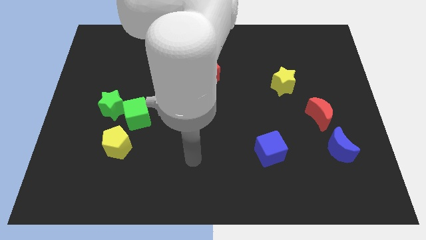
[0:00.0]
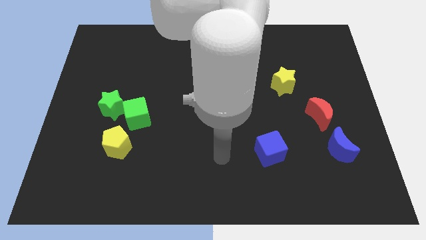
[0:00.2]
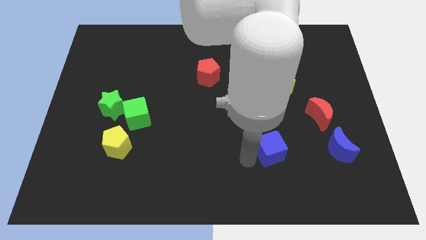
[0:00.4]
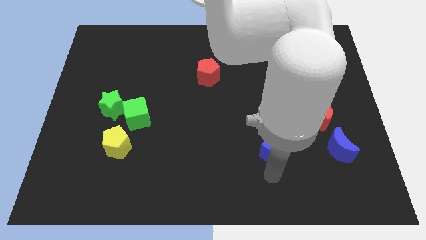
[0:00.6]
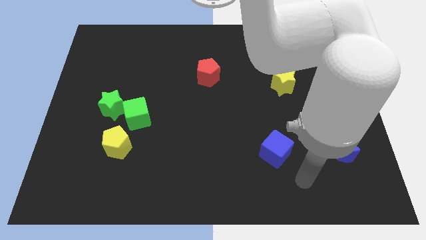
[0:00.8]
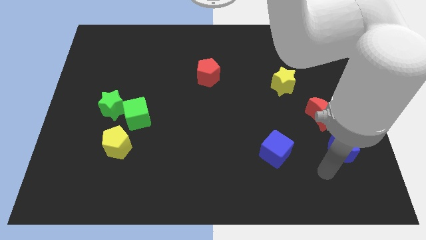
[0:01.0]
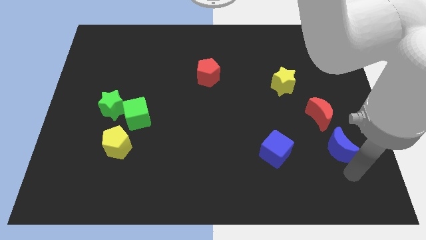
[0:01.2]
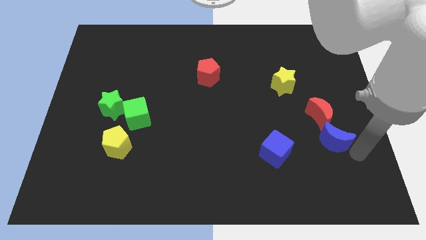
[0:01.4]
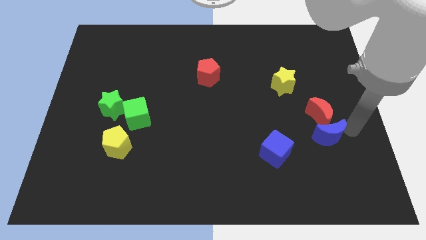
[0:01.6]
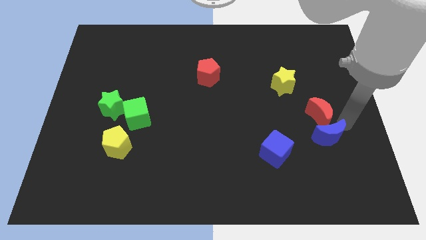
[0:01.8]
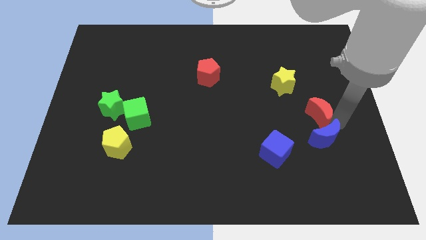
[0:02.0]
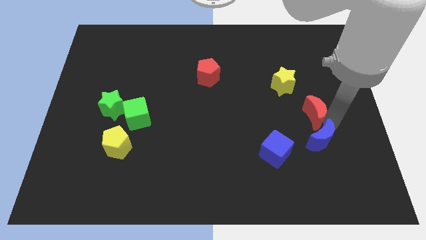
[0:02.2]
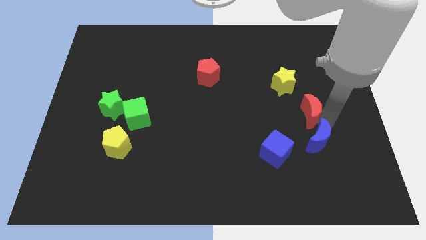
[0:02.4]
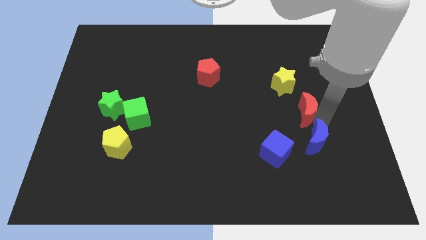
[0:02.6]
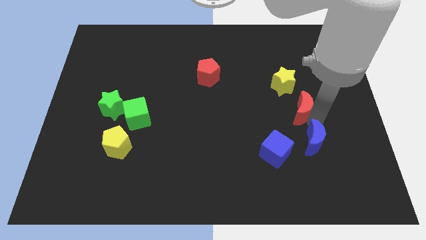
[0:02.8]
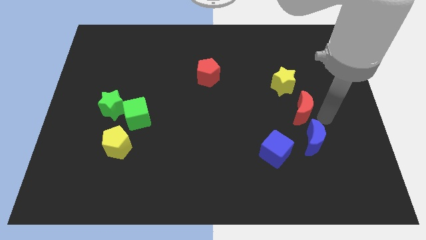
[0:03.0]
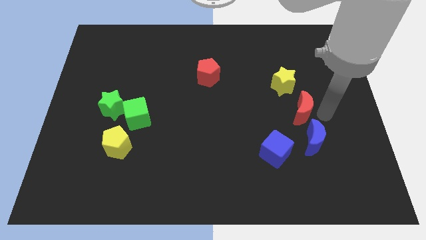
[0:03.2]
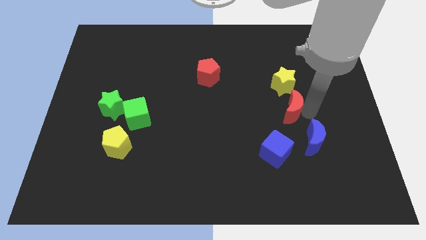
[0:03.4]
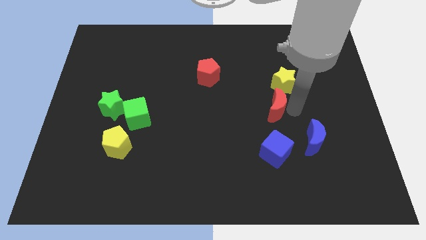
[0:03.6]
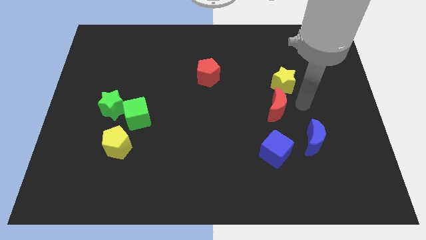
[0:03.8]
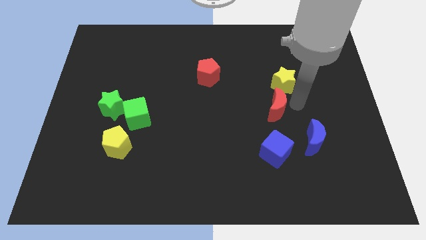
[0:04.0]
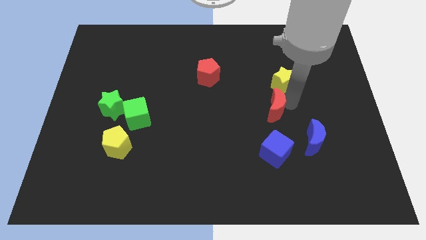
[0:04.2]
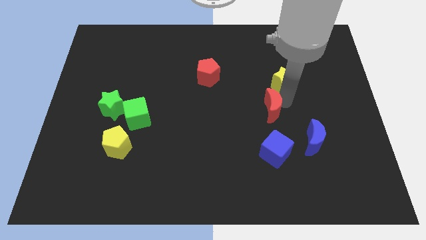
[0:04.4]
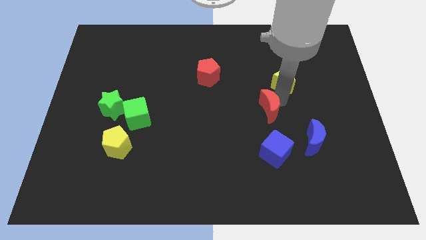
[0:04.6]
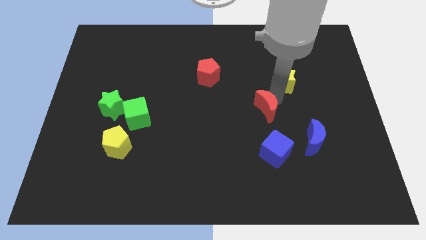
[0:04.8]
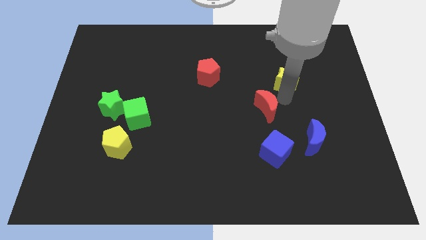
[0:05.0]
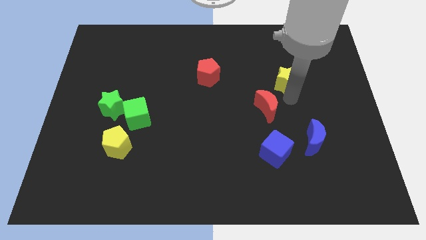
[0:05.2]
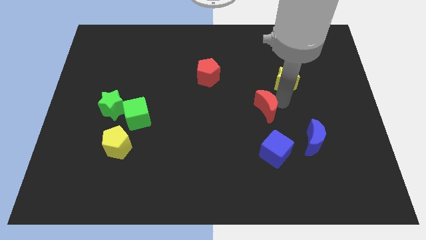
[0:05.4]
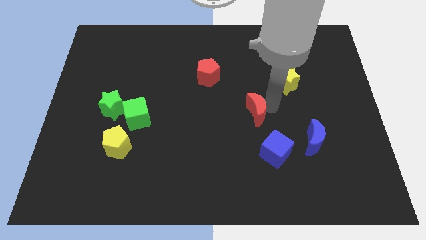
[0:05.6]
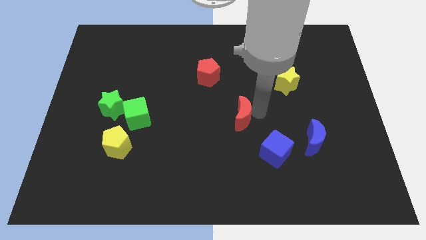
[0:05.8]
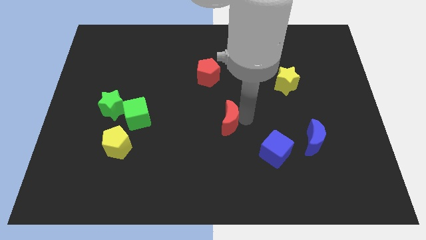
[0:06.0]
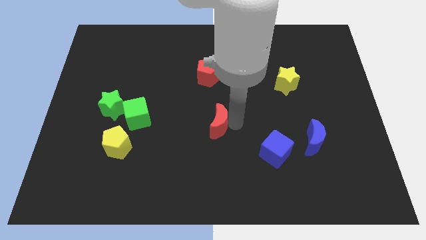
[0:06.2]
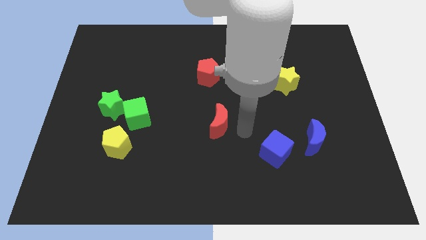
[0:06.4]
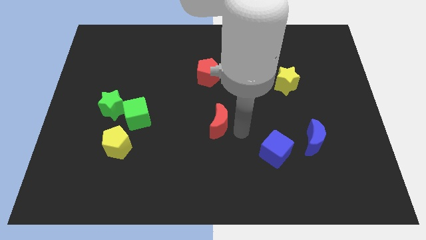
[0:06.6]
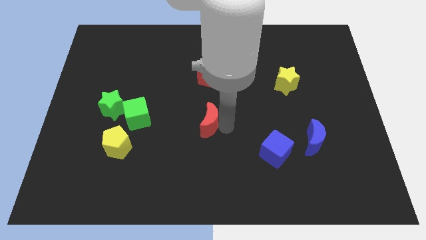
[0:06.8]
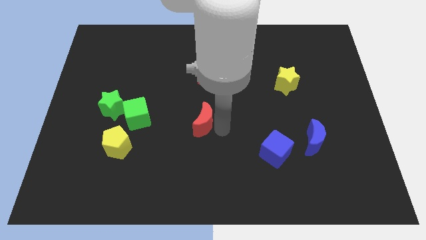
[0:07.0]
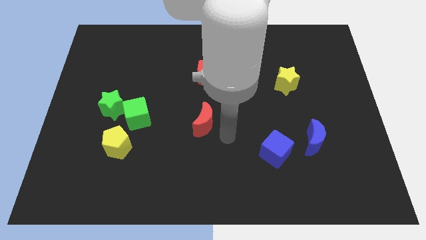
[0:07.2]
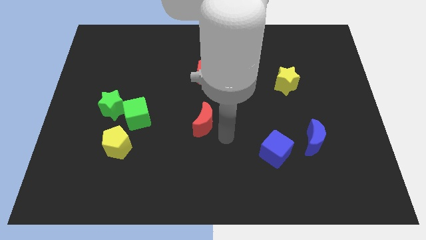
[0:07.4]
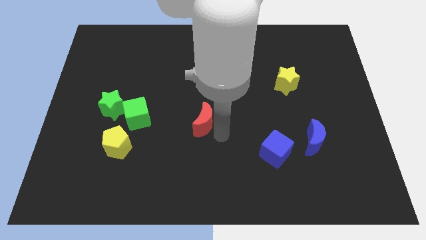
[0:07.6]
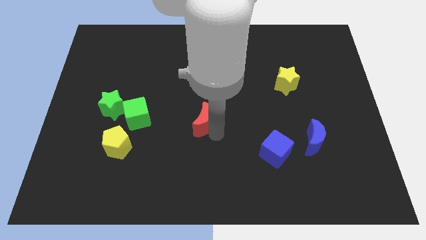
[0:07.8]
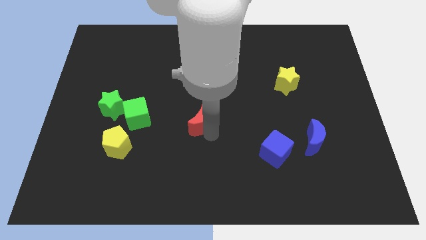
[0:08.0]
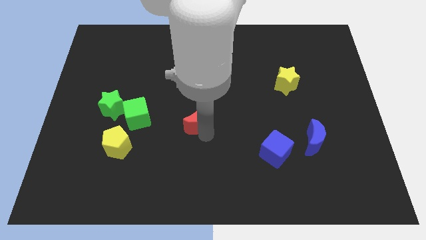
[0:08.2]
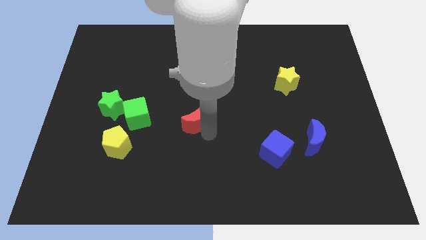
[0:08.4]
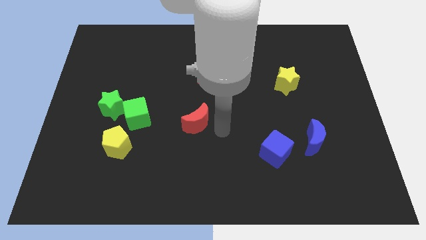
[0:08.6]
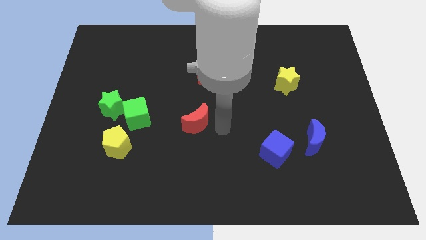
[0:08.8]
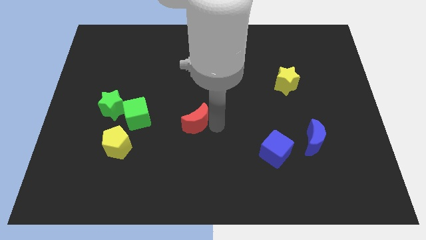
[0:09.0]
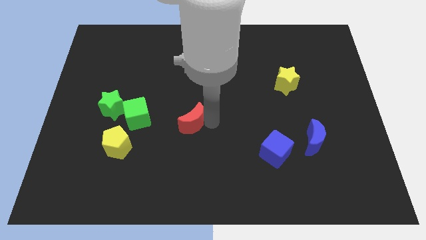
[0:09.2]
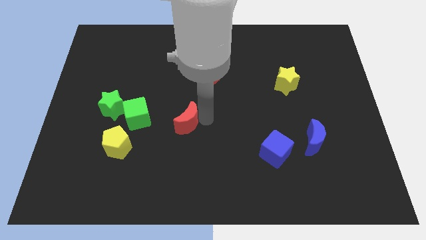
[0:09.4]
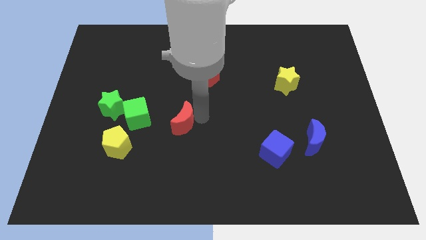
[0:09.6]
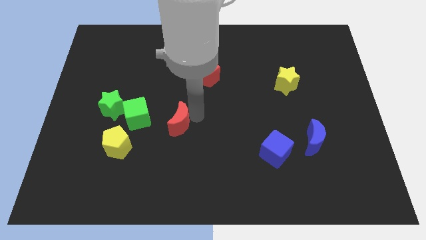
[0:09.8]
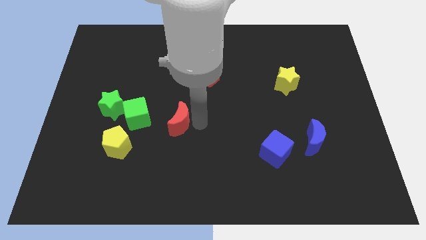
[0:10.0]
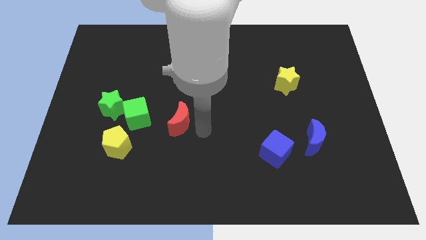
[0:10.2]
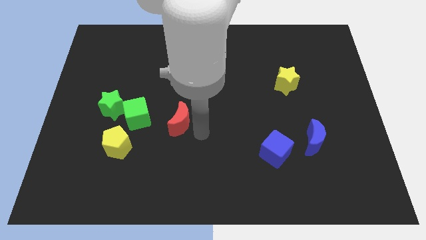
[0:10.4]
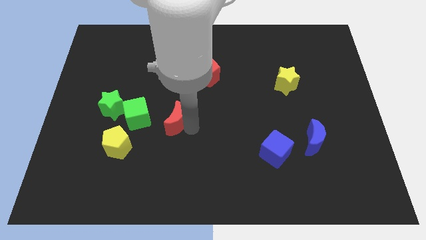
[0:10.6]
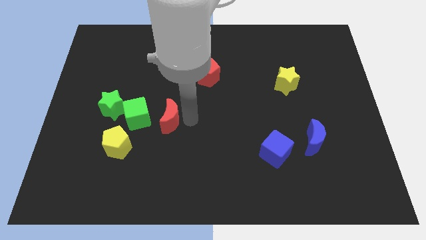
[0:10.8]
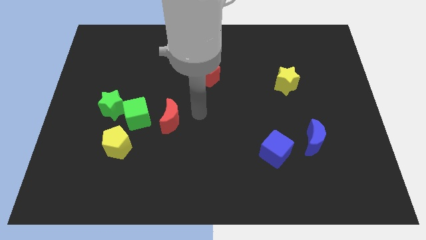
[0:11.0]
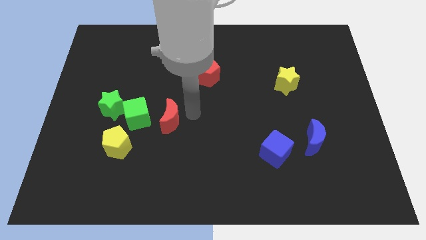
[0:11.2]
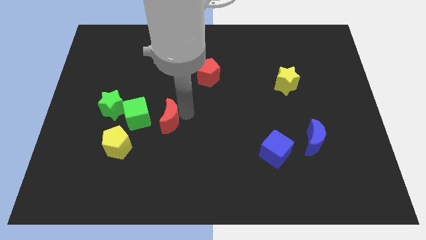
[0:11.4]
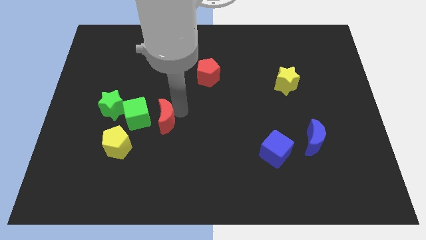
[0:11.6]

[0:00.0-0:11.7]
put the red moon to the top right of the yellow pentagon
